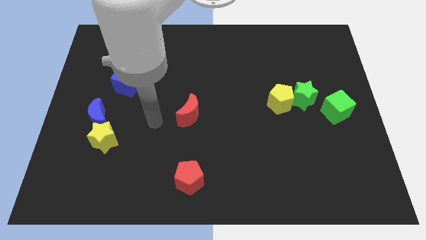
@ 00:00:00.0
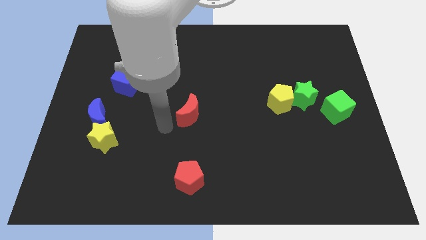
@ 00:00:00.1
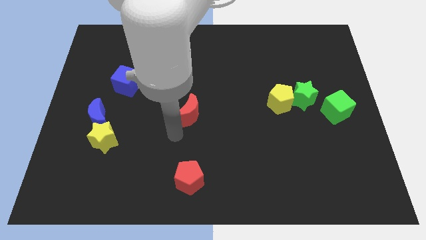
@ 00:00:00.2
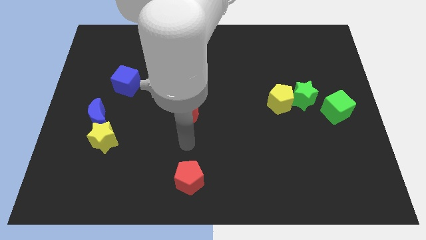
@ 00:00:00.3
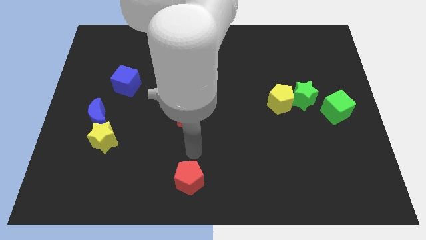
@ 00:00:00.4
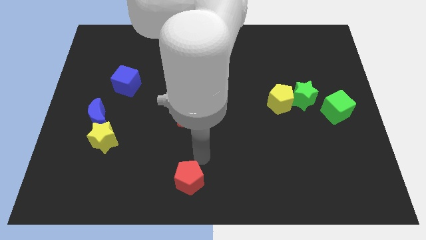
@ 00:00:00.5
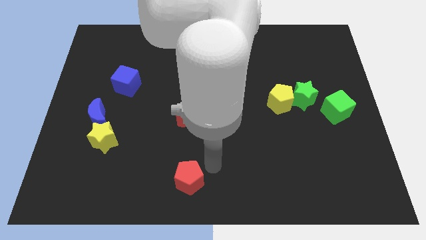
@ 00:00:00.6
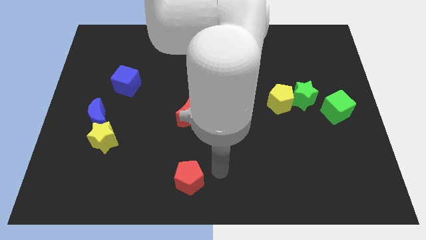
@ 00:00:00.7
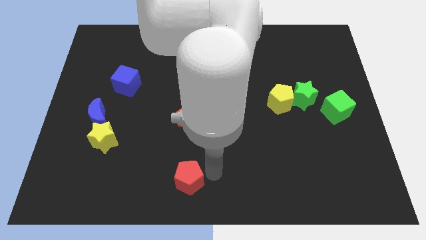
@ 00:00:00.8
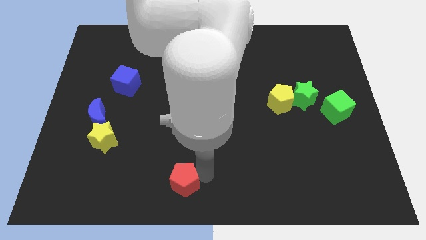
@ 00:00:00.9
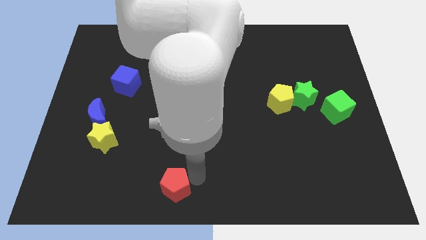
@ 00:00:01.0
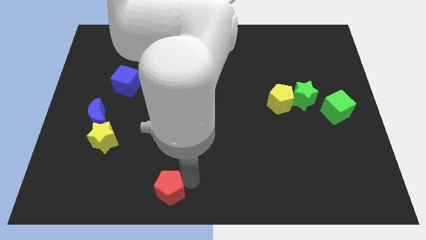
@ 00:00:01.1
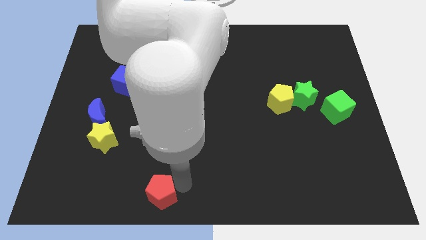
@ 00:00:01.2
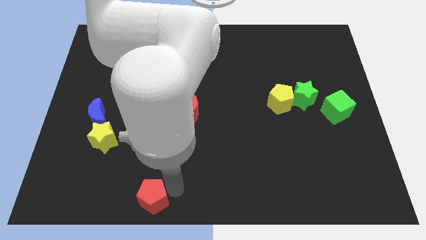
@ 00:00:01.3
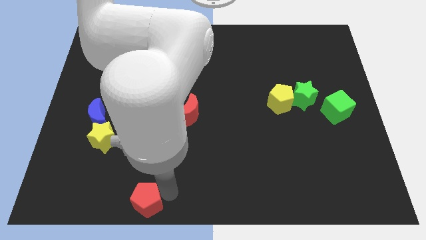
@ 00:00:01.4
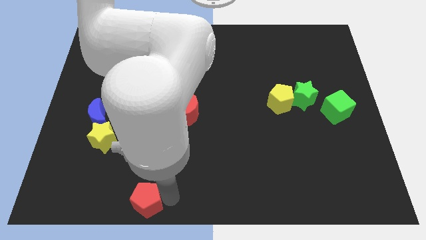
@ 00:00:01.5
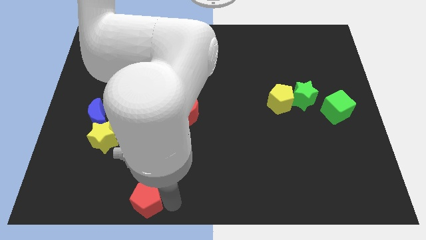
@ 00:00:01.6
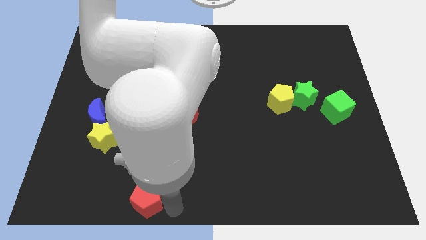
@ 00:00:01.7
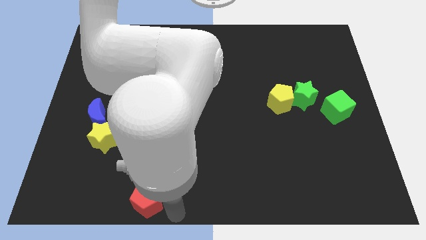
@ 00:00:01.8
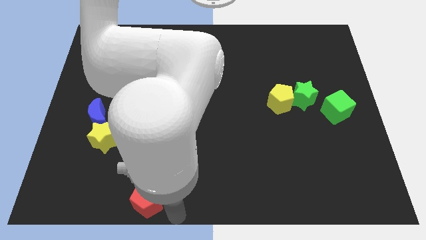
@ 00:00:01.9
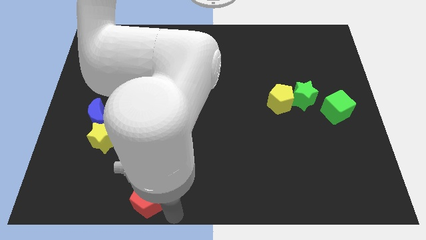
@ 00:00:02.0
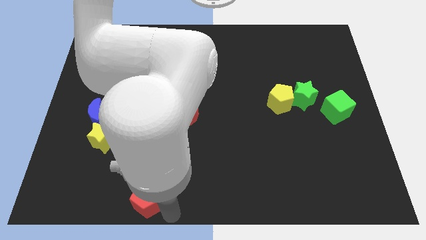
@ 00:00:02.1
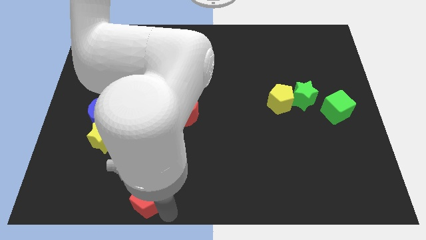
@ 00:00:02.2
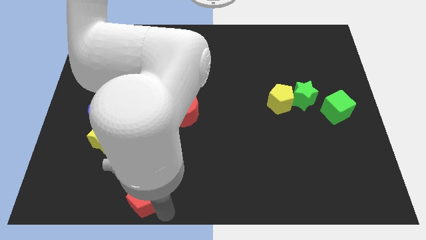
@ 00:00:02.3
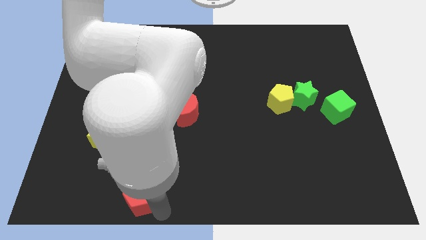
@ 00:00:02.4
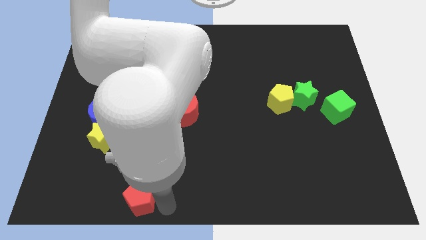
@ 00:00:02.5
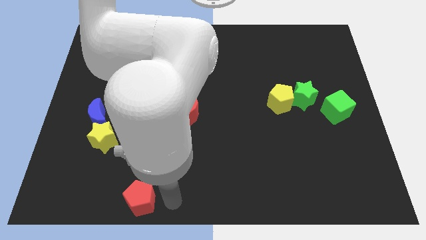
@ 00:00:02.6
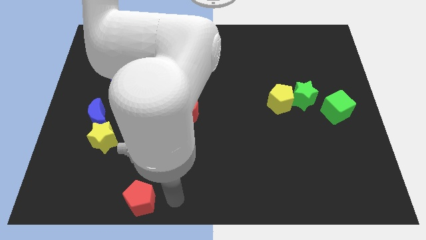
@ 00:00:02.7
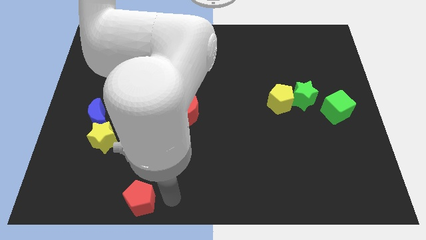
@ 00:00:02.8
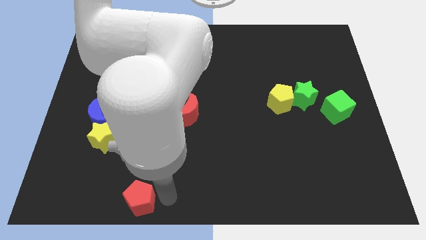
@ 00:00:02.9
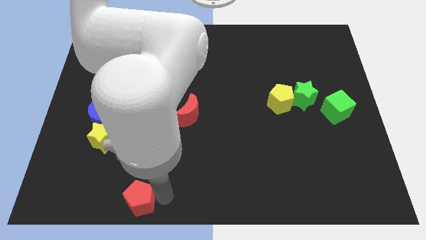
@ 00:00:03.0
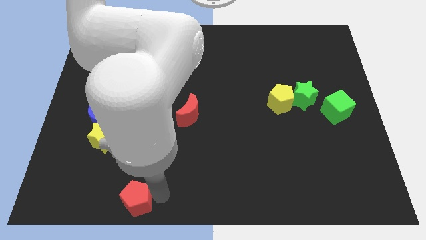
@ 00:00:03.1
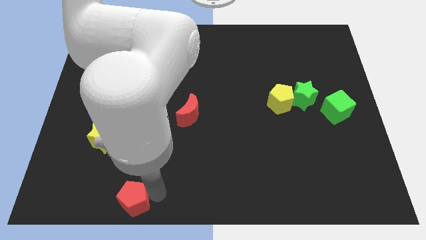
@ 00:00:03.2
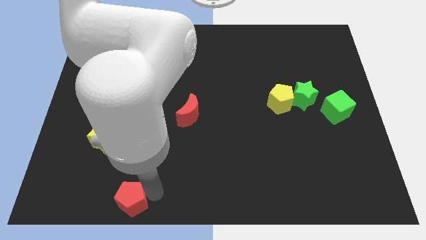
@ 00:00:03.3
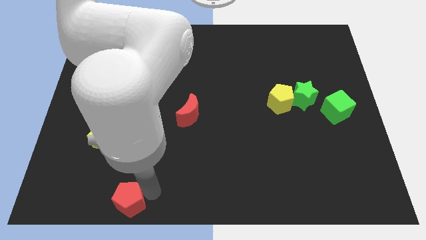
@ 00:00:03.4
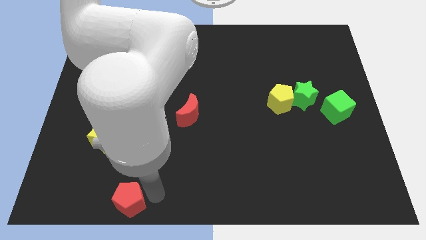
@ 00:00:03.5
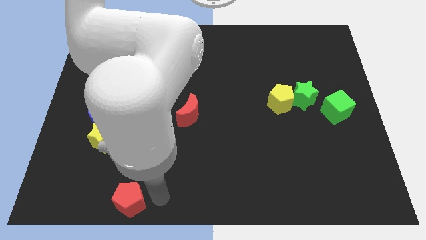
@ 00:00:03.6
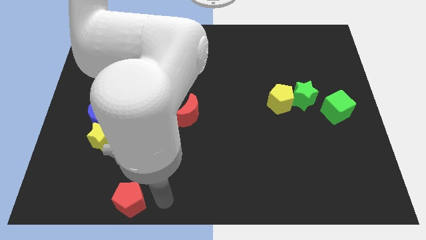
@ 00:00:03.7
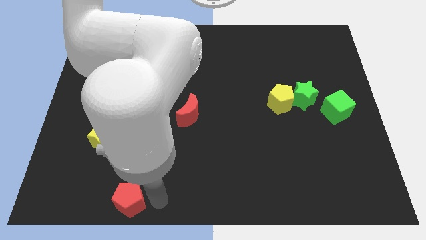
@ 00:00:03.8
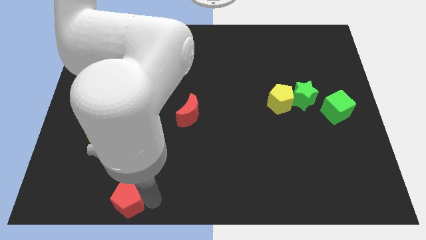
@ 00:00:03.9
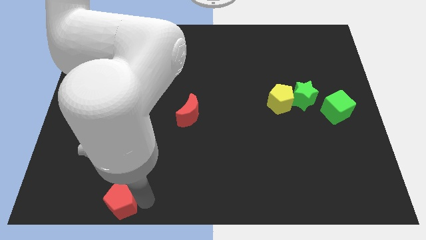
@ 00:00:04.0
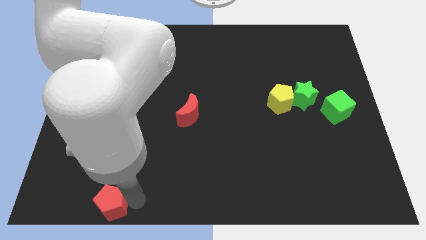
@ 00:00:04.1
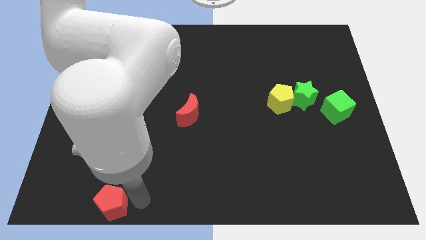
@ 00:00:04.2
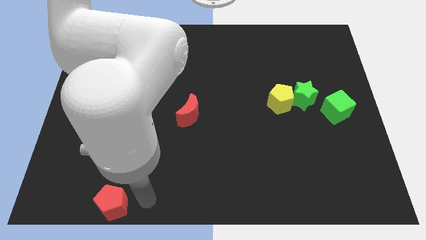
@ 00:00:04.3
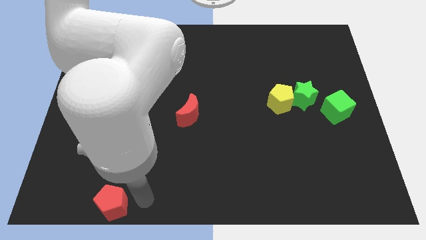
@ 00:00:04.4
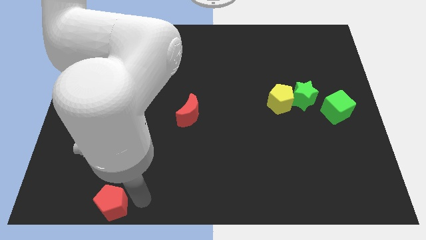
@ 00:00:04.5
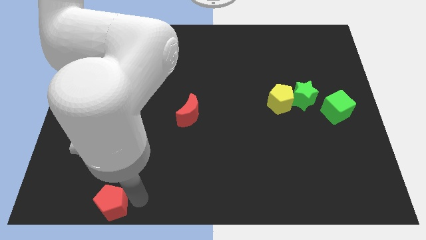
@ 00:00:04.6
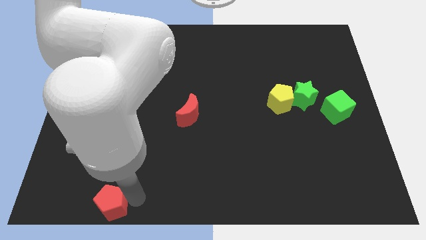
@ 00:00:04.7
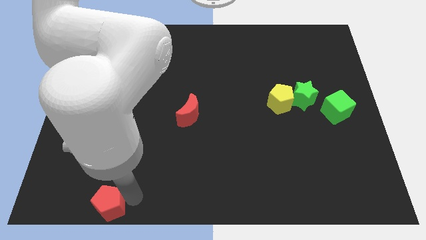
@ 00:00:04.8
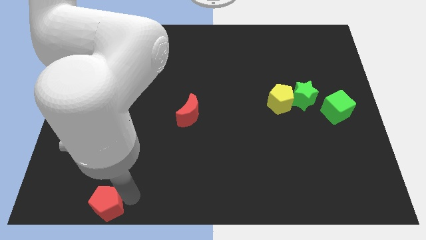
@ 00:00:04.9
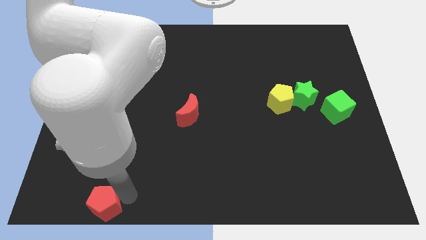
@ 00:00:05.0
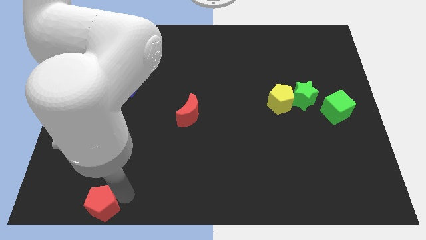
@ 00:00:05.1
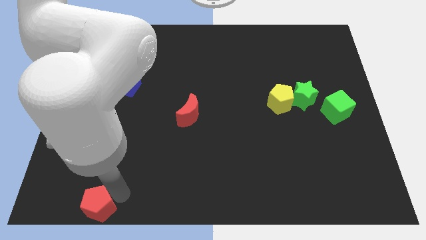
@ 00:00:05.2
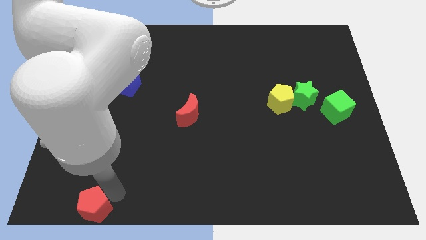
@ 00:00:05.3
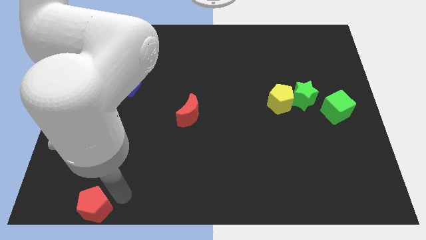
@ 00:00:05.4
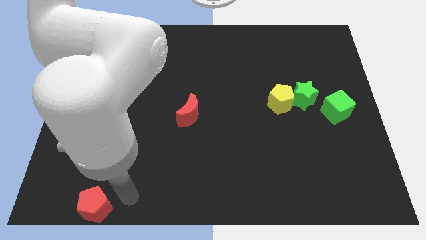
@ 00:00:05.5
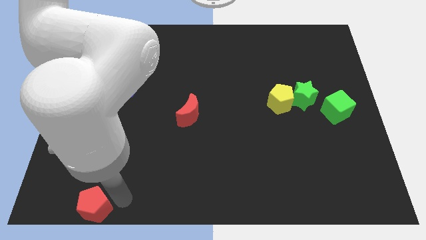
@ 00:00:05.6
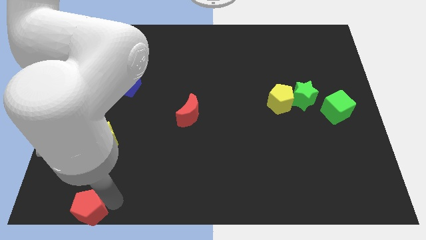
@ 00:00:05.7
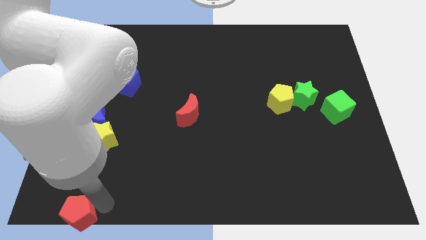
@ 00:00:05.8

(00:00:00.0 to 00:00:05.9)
slide the red pentagon to the bottom left corner

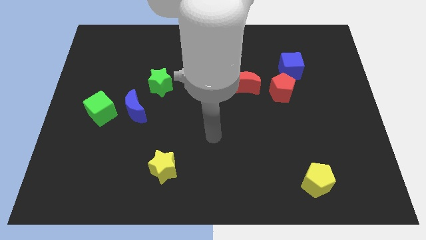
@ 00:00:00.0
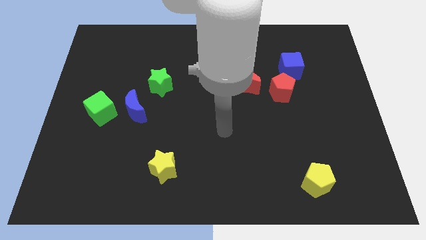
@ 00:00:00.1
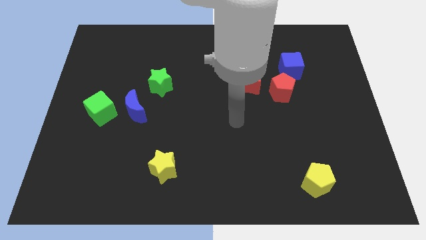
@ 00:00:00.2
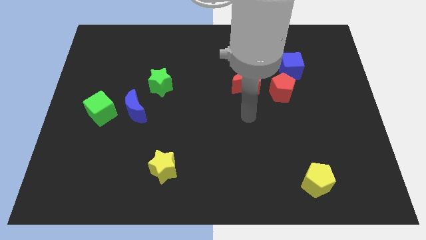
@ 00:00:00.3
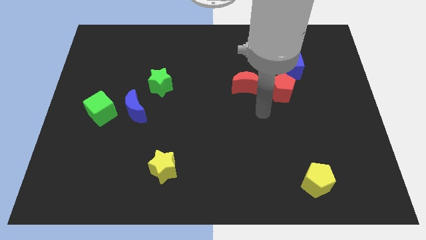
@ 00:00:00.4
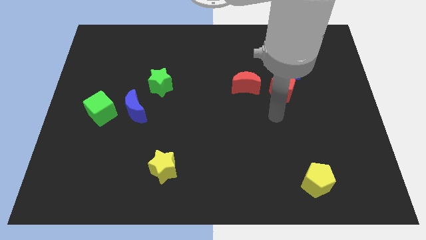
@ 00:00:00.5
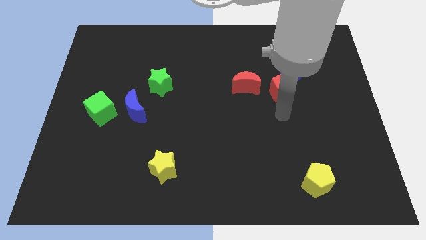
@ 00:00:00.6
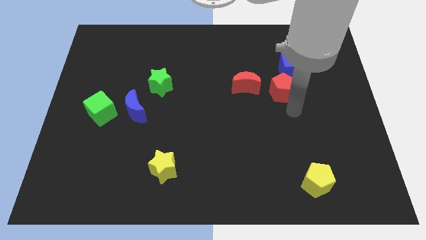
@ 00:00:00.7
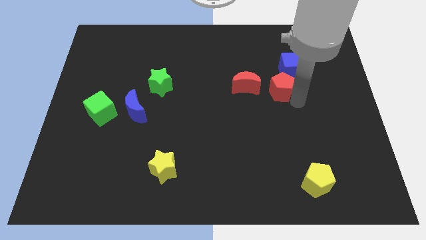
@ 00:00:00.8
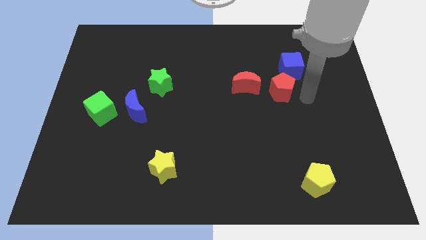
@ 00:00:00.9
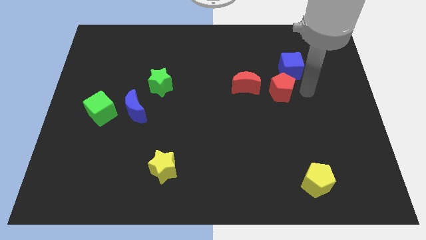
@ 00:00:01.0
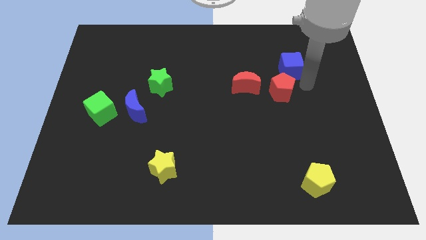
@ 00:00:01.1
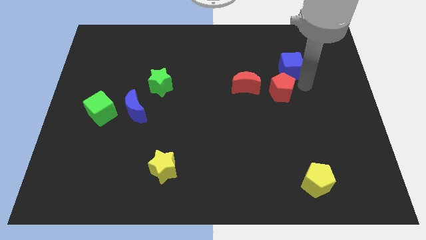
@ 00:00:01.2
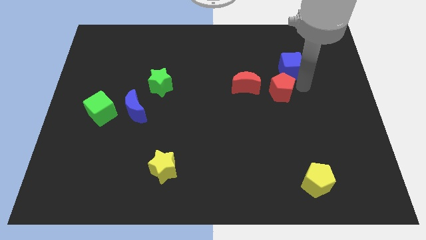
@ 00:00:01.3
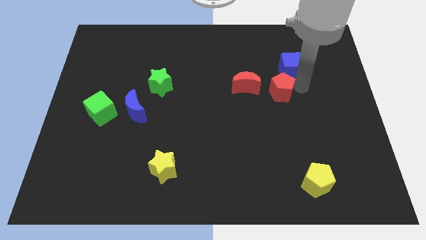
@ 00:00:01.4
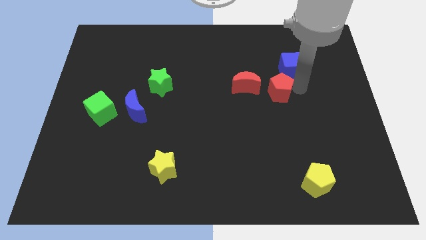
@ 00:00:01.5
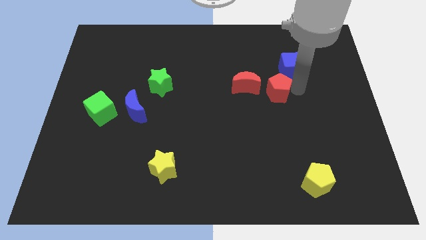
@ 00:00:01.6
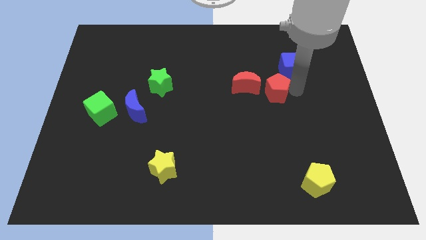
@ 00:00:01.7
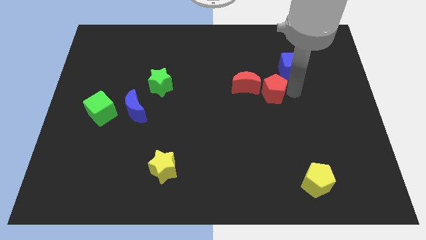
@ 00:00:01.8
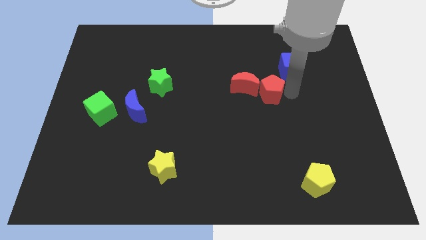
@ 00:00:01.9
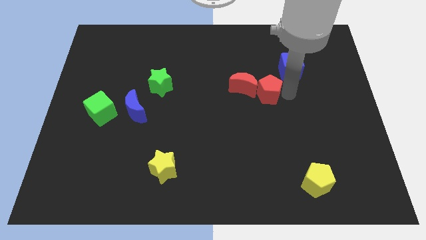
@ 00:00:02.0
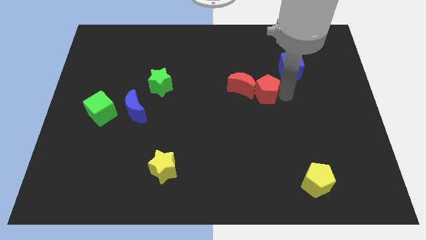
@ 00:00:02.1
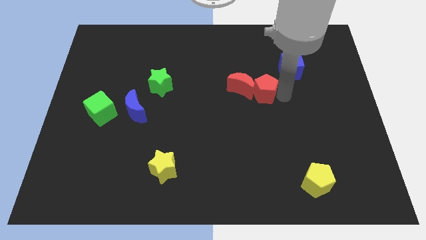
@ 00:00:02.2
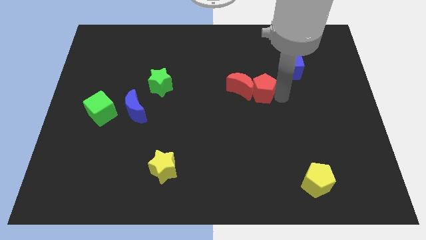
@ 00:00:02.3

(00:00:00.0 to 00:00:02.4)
push the red pentagon to the center of the board
